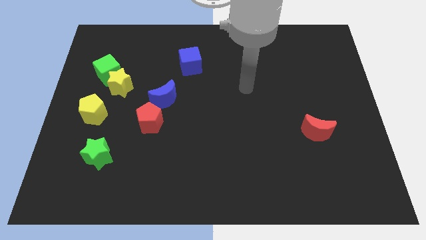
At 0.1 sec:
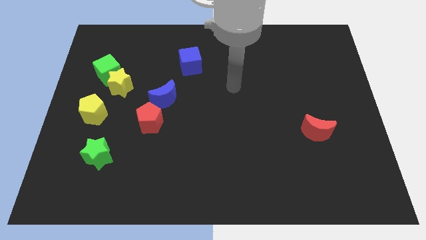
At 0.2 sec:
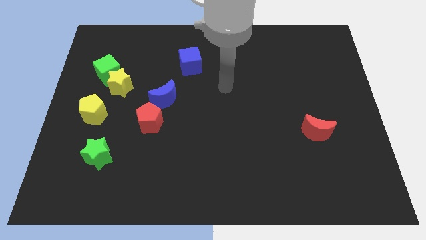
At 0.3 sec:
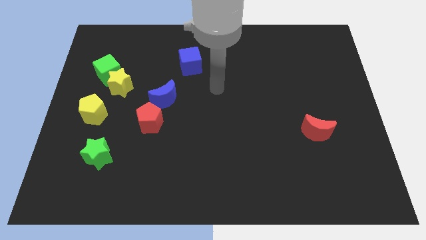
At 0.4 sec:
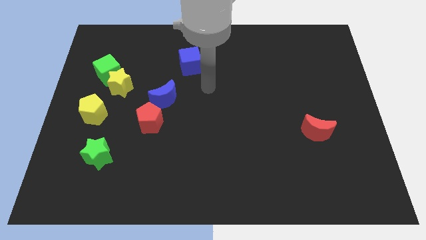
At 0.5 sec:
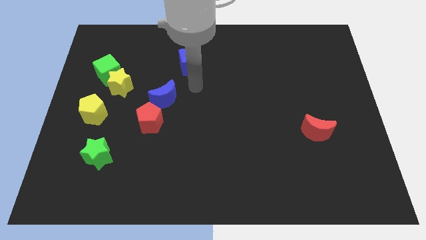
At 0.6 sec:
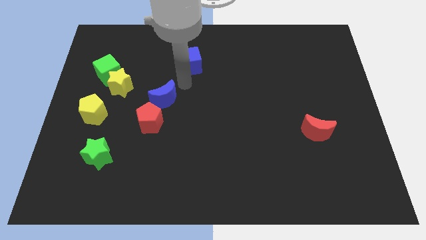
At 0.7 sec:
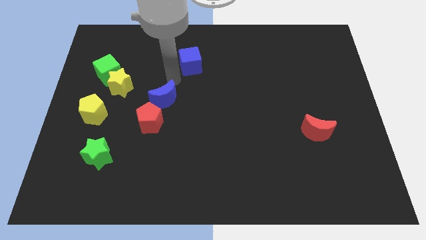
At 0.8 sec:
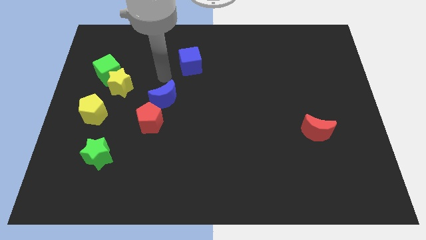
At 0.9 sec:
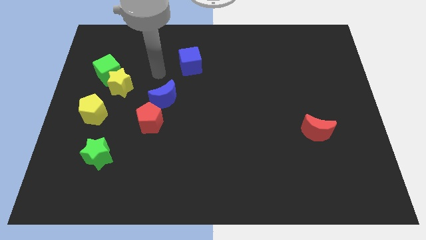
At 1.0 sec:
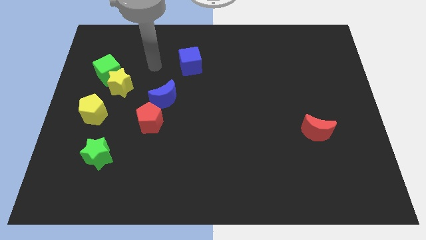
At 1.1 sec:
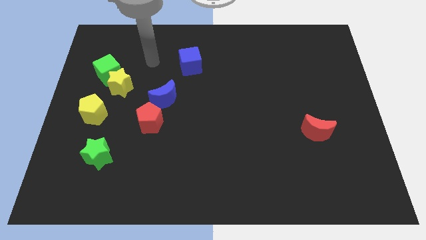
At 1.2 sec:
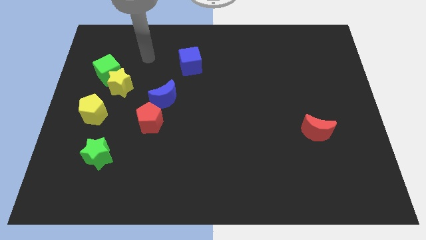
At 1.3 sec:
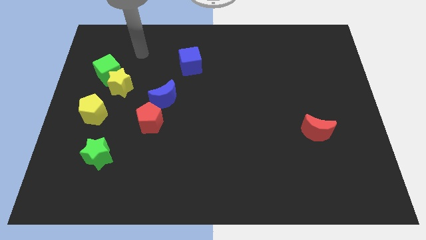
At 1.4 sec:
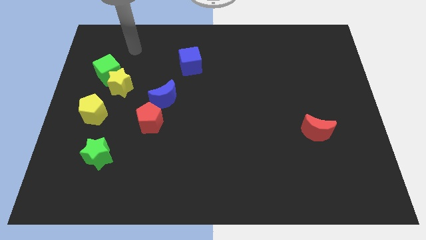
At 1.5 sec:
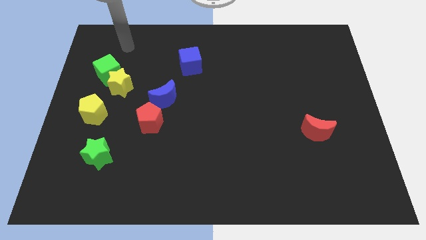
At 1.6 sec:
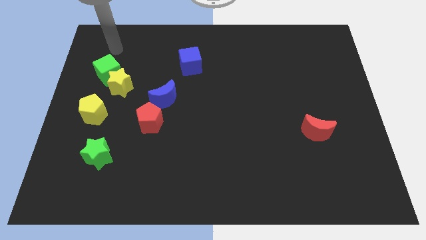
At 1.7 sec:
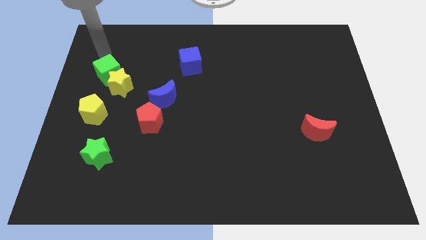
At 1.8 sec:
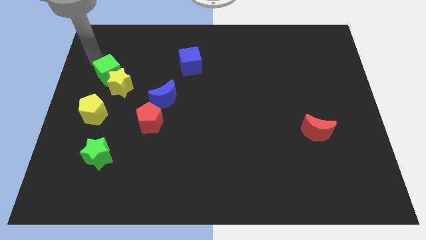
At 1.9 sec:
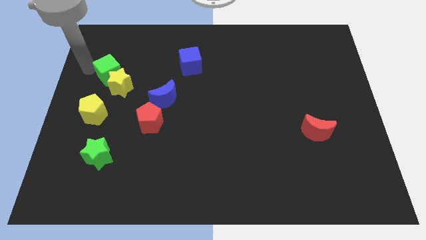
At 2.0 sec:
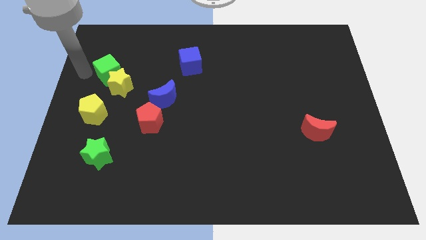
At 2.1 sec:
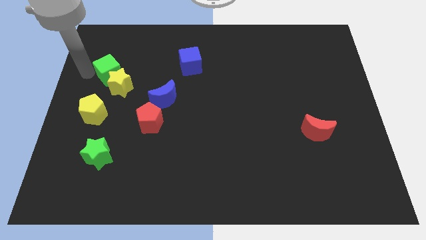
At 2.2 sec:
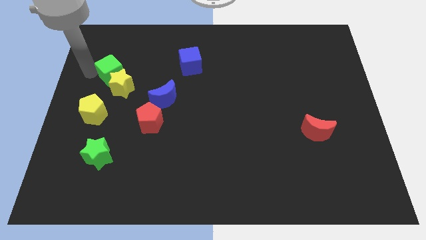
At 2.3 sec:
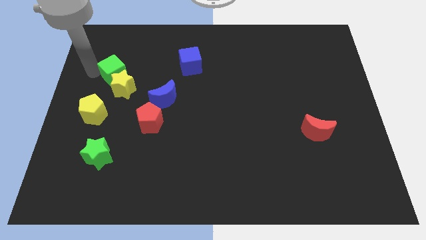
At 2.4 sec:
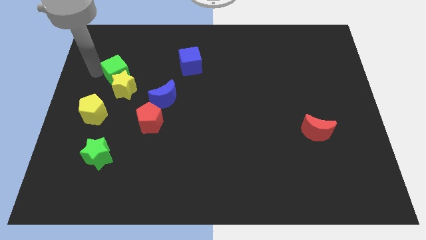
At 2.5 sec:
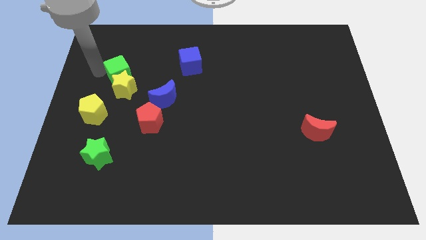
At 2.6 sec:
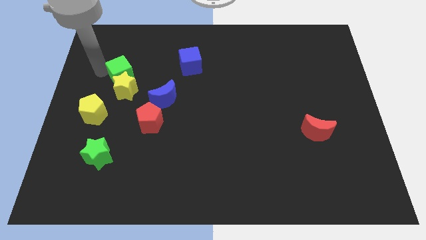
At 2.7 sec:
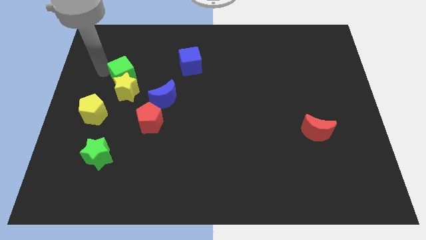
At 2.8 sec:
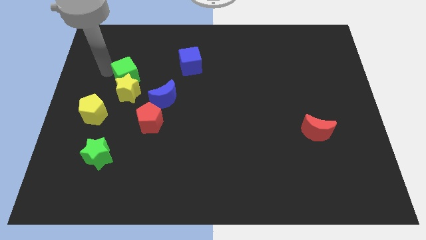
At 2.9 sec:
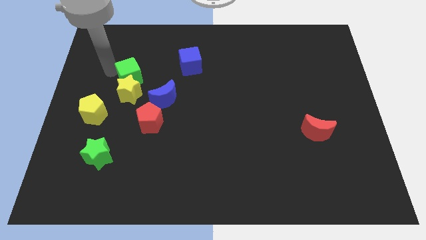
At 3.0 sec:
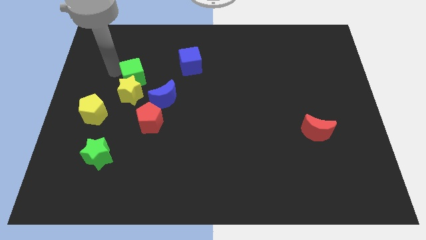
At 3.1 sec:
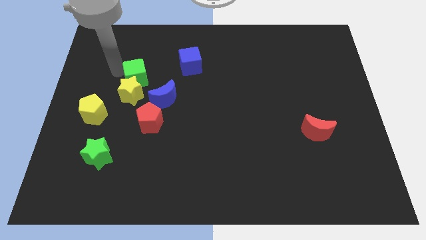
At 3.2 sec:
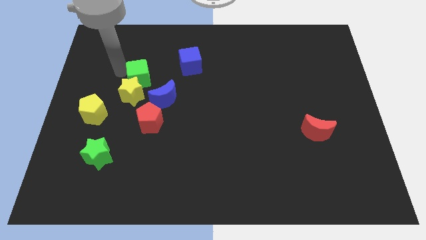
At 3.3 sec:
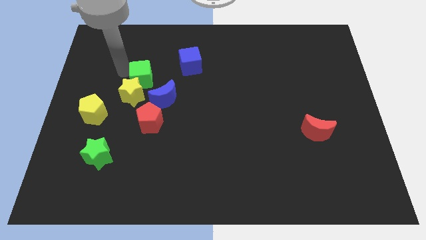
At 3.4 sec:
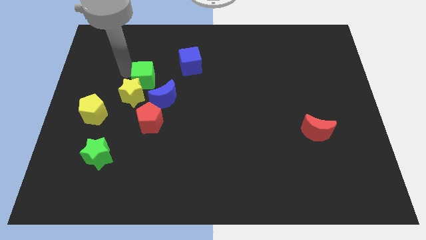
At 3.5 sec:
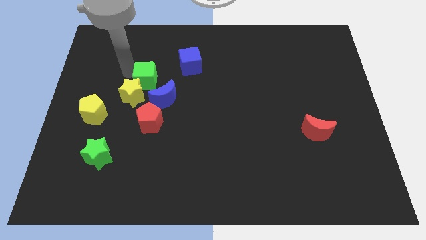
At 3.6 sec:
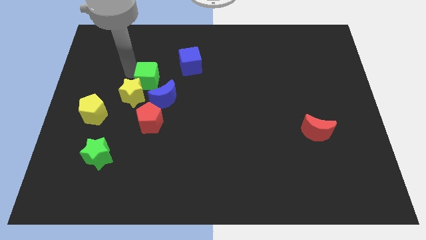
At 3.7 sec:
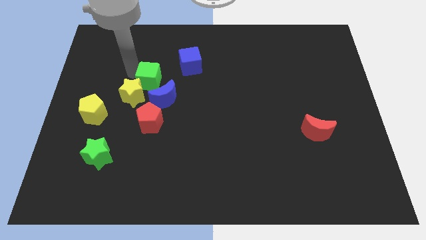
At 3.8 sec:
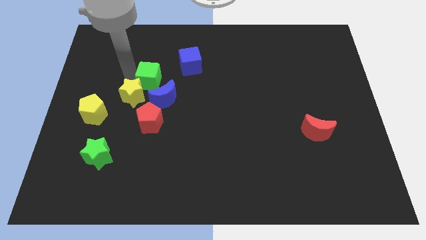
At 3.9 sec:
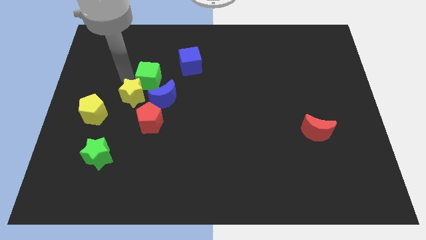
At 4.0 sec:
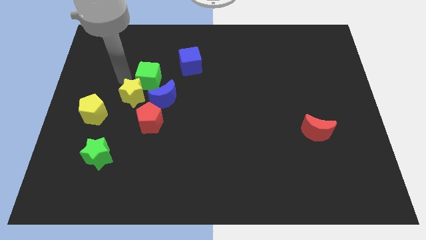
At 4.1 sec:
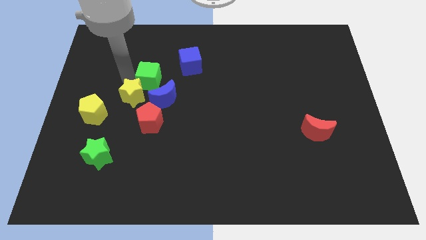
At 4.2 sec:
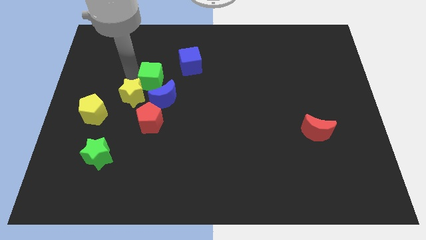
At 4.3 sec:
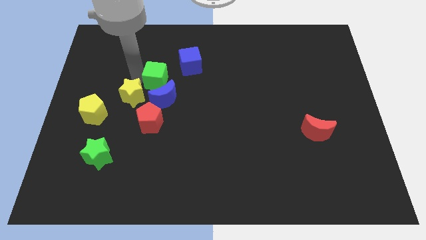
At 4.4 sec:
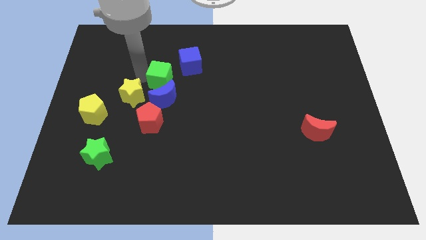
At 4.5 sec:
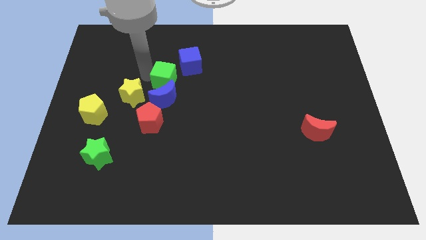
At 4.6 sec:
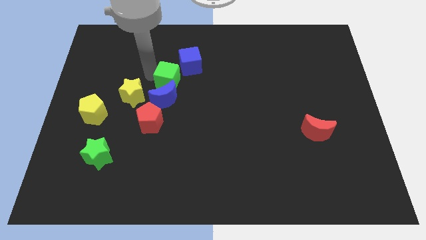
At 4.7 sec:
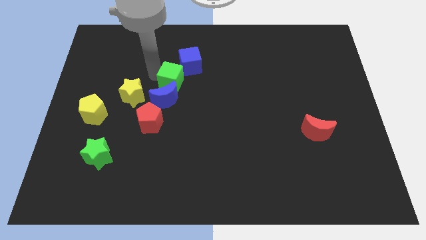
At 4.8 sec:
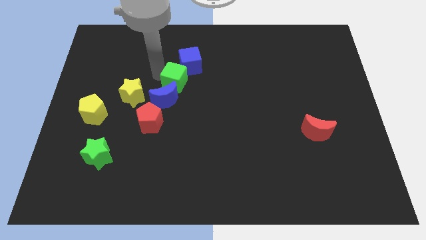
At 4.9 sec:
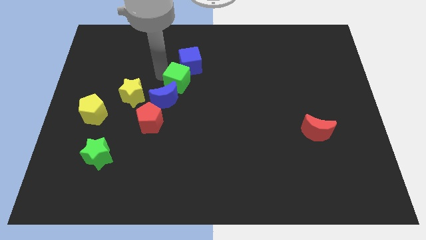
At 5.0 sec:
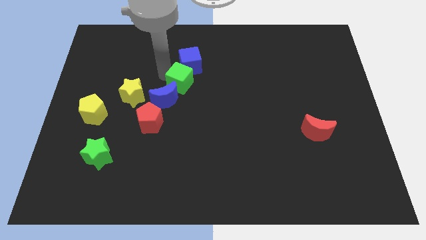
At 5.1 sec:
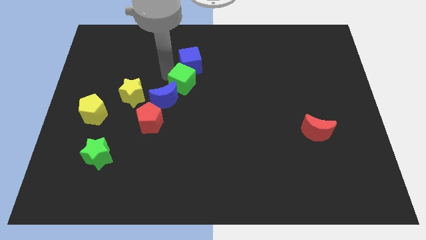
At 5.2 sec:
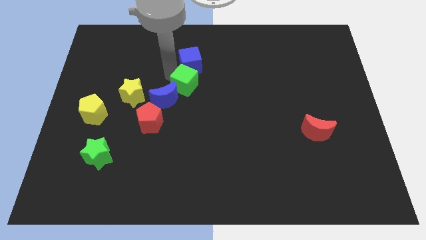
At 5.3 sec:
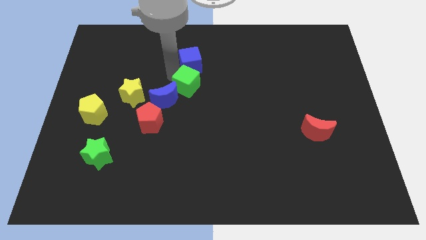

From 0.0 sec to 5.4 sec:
put the green cube to the right of the blue moon

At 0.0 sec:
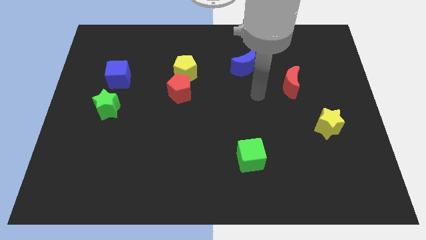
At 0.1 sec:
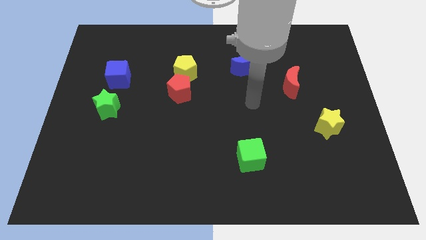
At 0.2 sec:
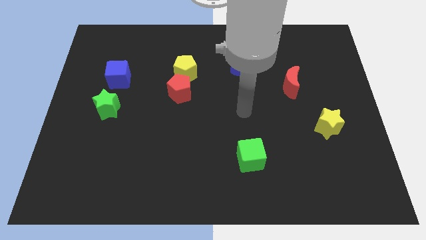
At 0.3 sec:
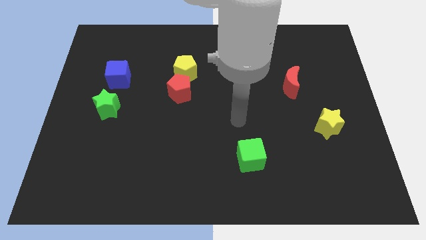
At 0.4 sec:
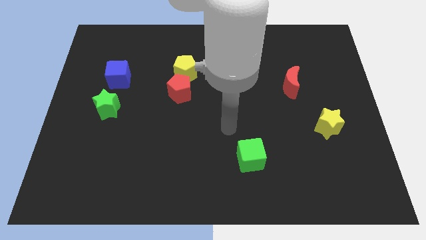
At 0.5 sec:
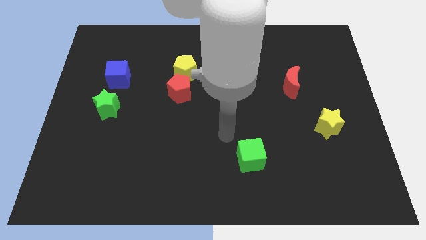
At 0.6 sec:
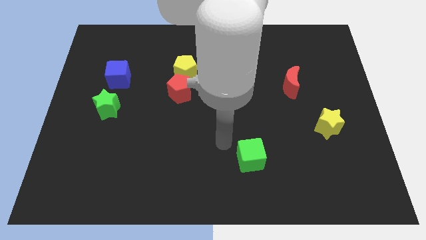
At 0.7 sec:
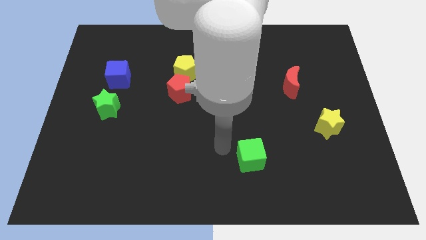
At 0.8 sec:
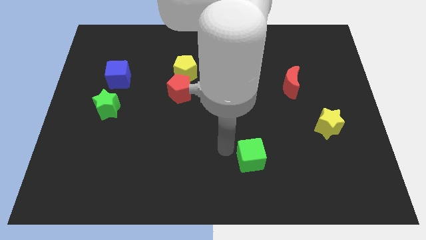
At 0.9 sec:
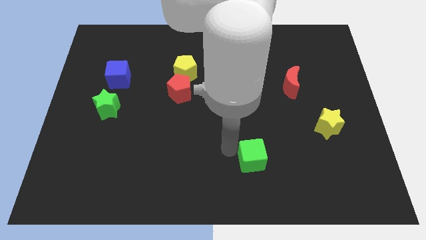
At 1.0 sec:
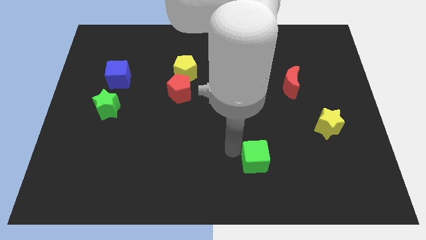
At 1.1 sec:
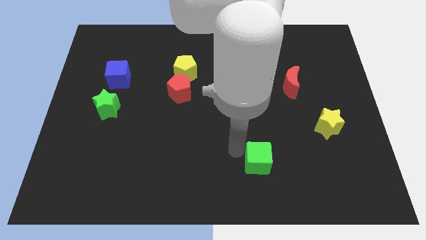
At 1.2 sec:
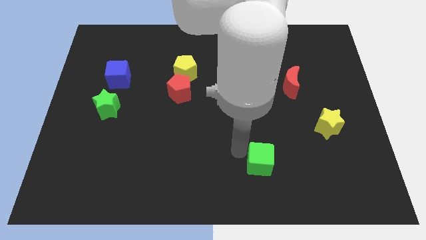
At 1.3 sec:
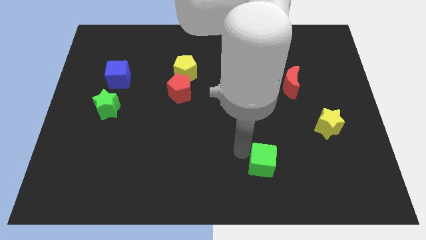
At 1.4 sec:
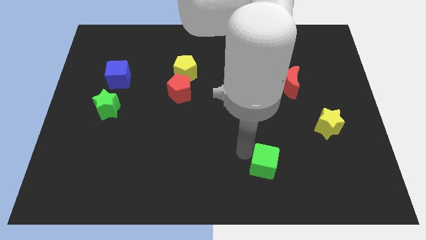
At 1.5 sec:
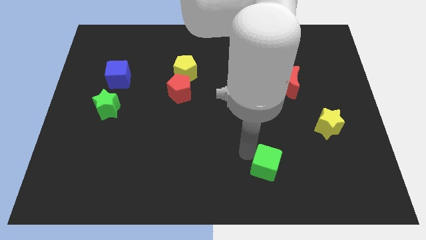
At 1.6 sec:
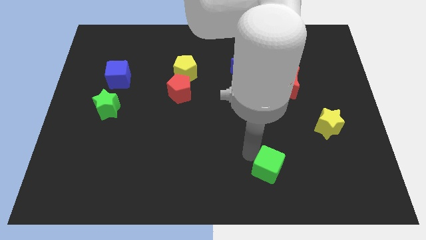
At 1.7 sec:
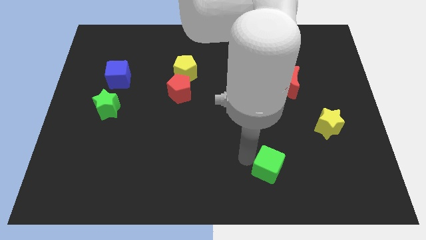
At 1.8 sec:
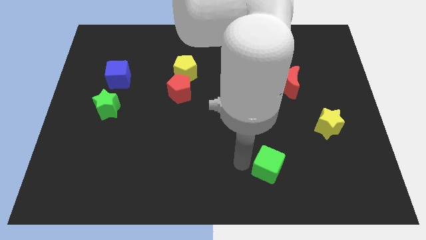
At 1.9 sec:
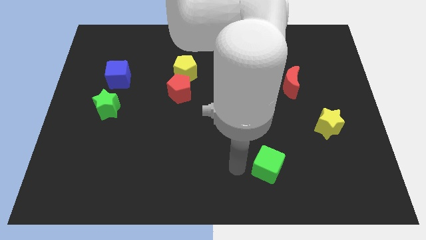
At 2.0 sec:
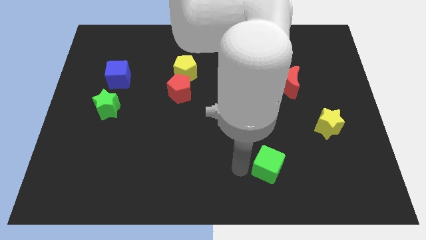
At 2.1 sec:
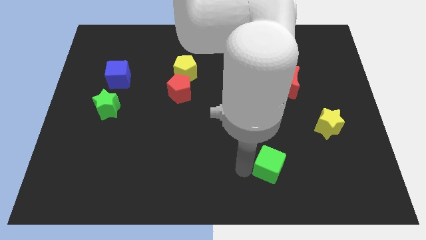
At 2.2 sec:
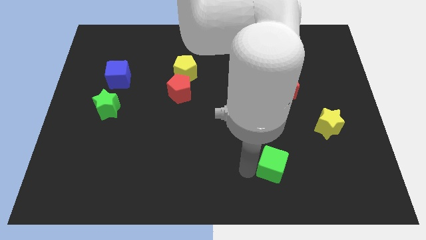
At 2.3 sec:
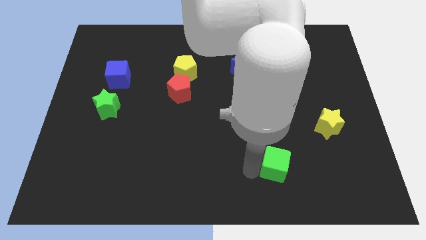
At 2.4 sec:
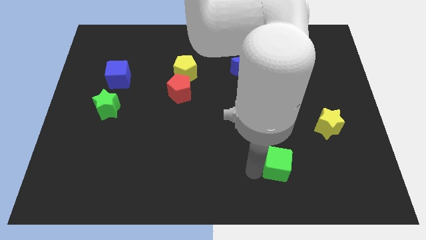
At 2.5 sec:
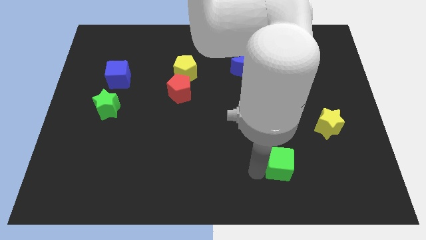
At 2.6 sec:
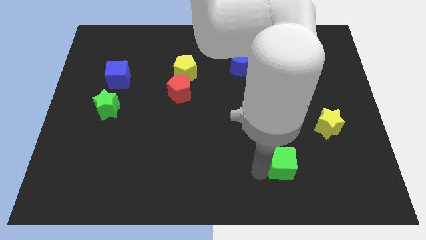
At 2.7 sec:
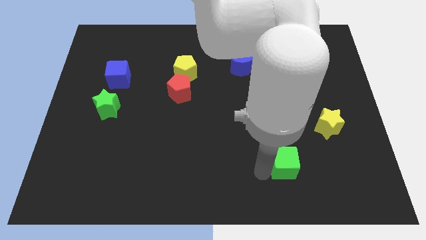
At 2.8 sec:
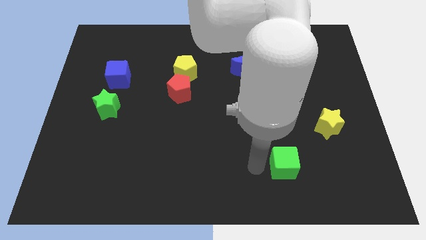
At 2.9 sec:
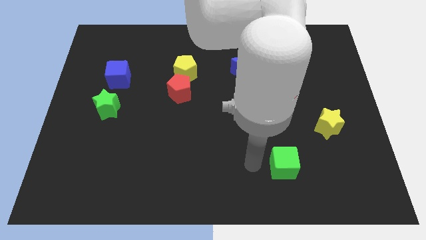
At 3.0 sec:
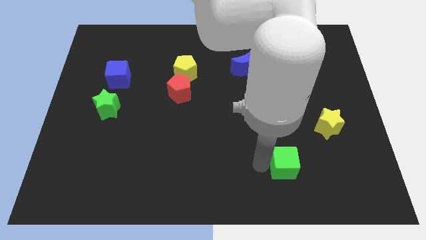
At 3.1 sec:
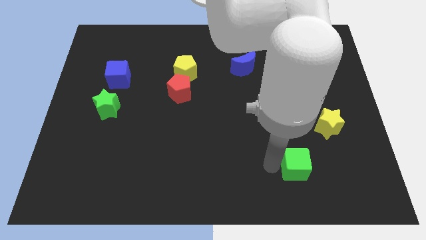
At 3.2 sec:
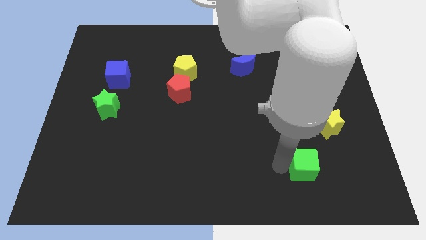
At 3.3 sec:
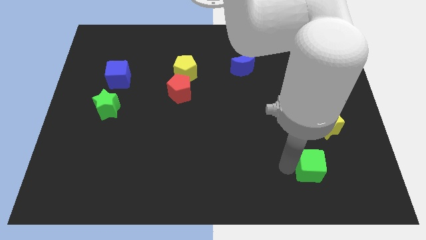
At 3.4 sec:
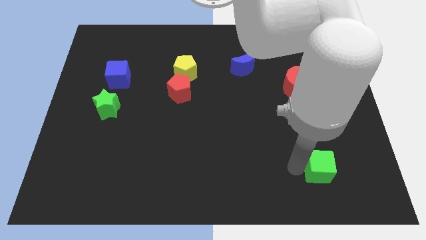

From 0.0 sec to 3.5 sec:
move the green cube to the bottom of the yellow star
